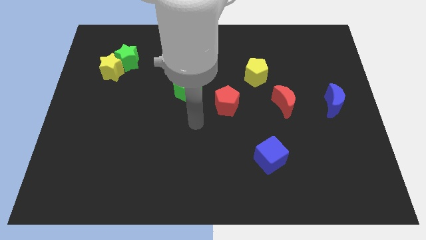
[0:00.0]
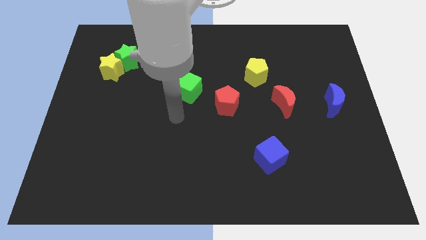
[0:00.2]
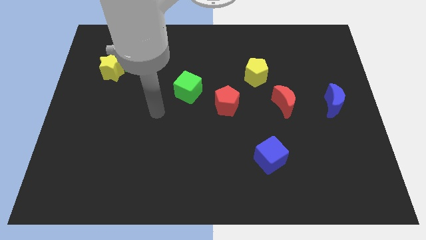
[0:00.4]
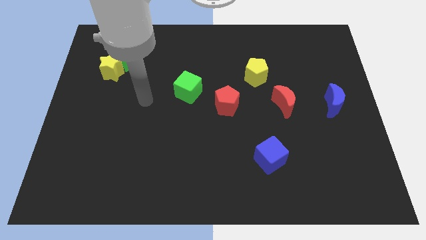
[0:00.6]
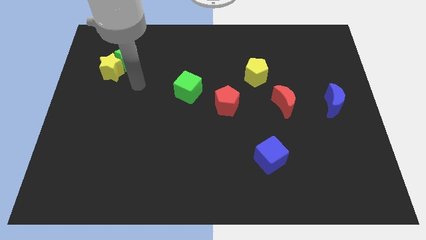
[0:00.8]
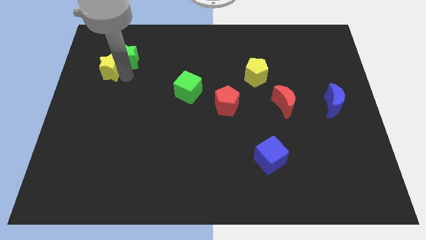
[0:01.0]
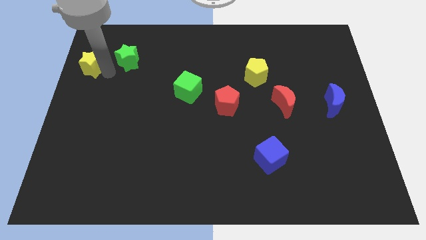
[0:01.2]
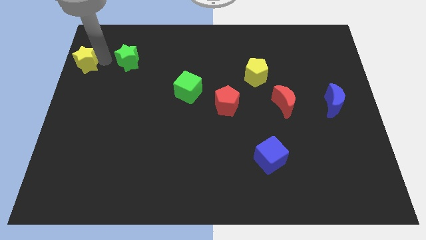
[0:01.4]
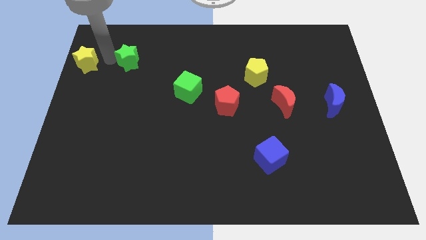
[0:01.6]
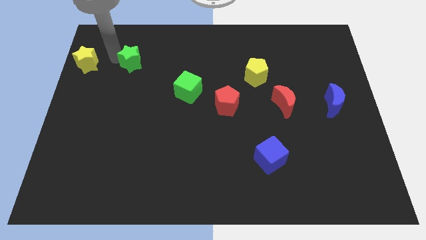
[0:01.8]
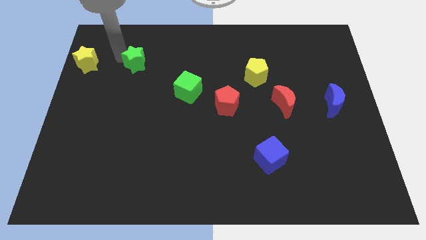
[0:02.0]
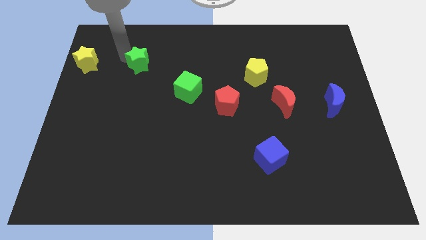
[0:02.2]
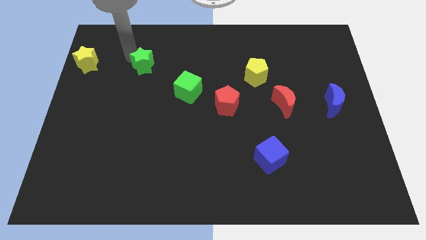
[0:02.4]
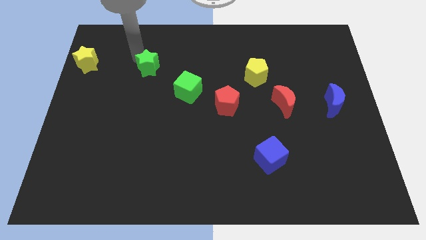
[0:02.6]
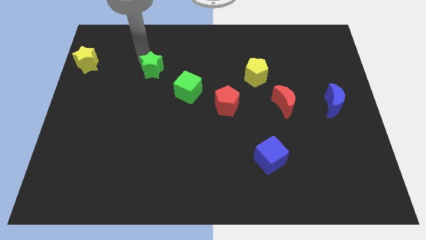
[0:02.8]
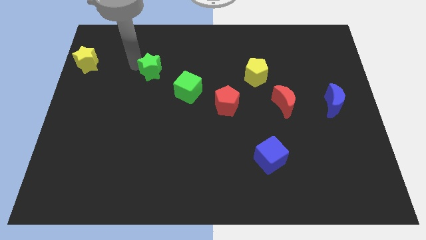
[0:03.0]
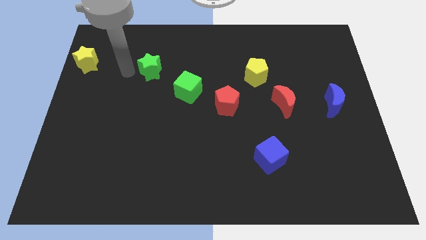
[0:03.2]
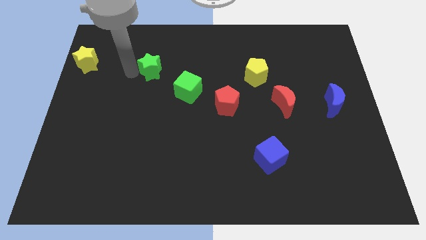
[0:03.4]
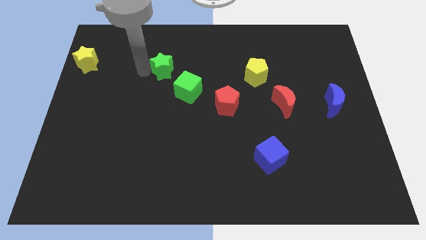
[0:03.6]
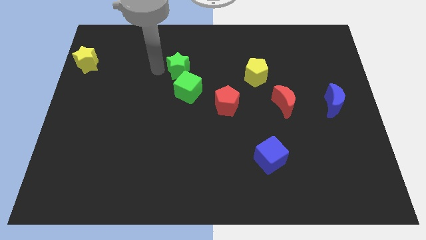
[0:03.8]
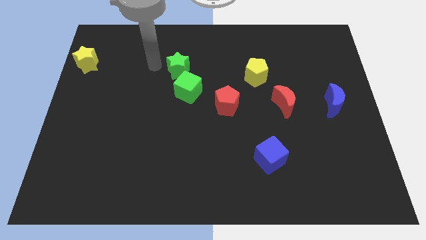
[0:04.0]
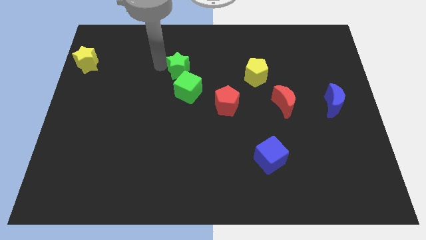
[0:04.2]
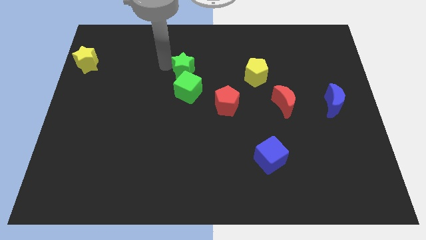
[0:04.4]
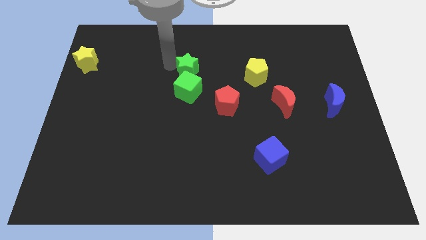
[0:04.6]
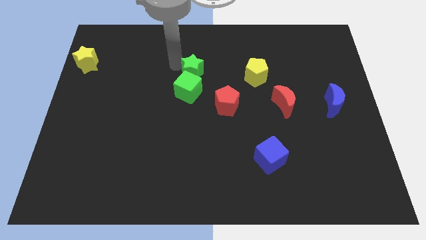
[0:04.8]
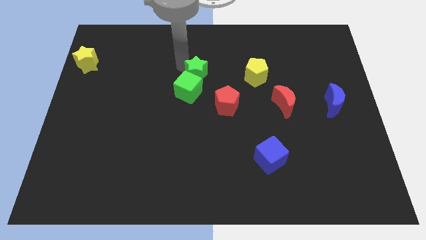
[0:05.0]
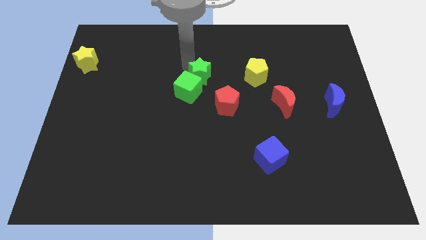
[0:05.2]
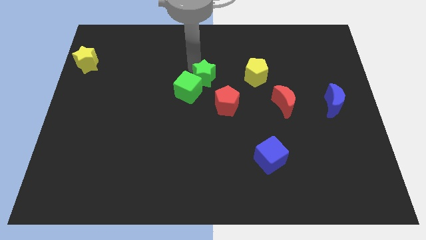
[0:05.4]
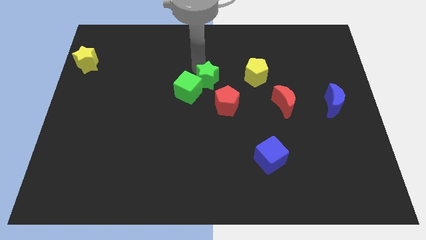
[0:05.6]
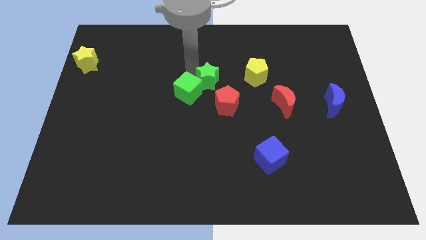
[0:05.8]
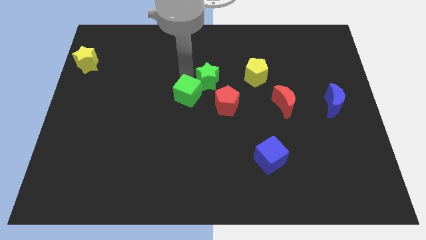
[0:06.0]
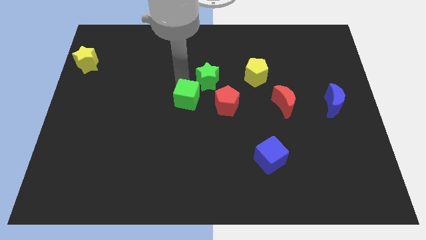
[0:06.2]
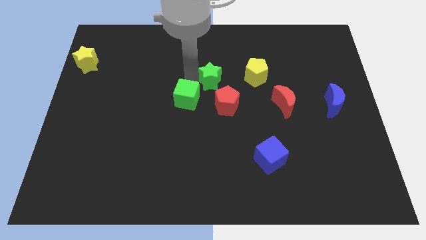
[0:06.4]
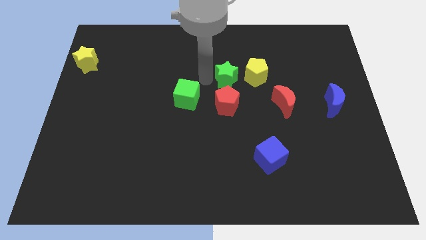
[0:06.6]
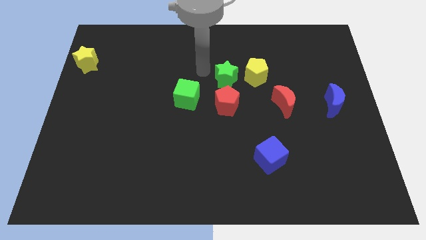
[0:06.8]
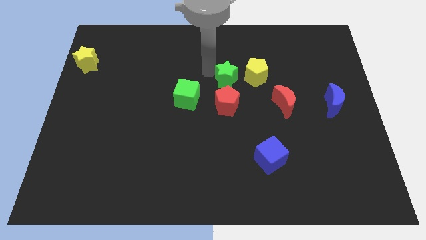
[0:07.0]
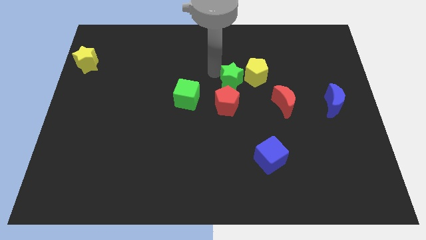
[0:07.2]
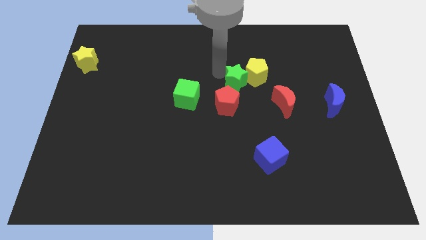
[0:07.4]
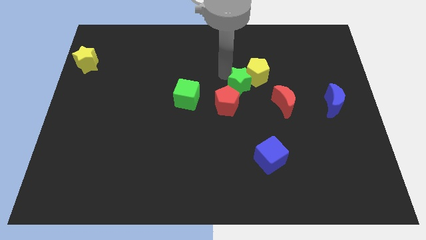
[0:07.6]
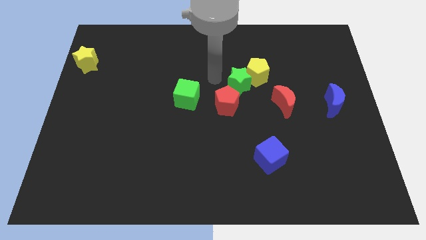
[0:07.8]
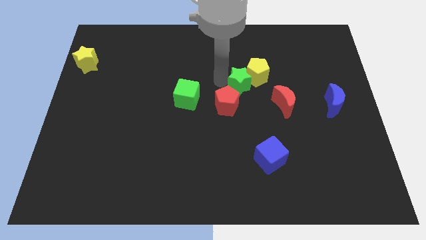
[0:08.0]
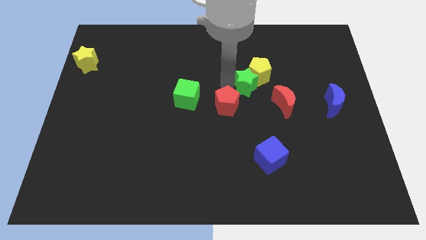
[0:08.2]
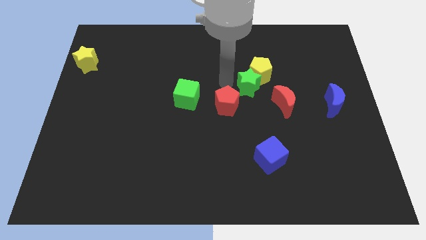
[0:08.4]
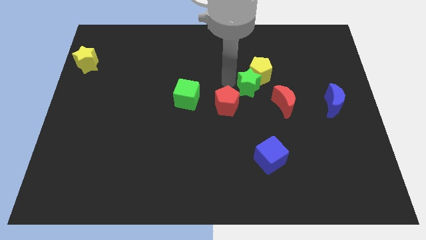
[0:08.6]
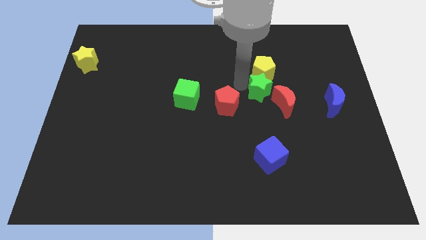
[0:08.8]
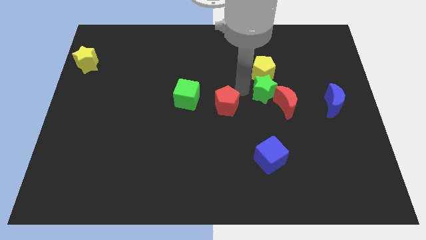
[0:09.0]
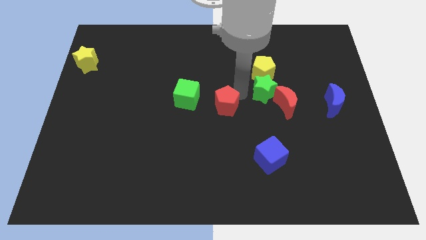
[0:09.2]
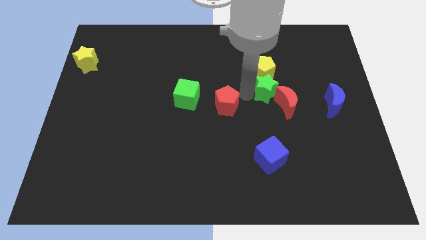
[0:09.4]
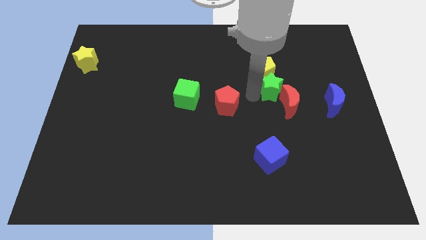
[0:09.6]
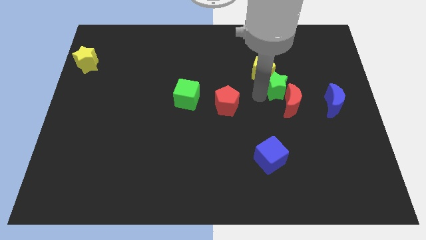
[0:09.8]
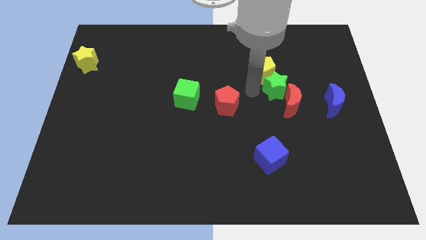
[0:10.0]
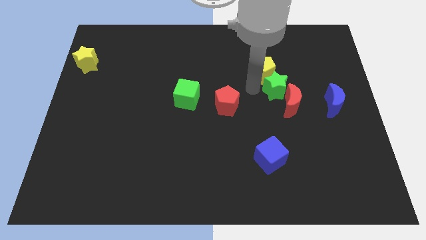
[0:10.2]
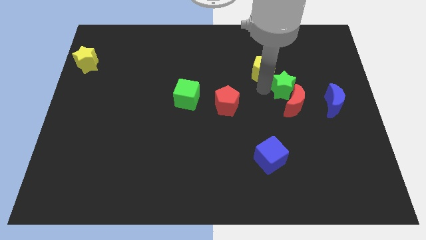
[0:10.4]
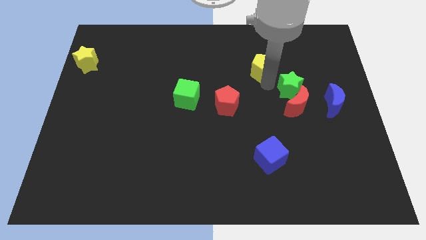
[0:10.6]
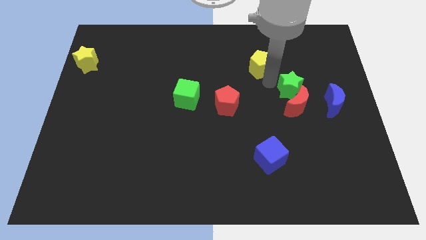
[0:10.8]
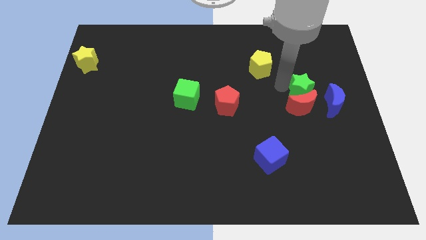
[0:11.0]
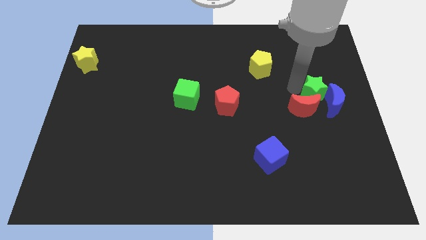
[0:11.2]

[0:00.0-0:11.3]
move the green star to the blue moon

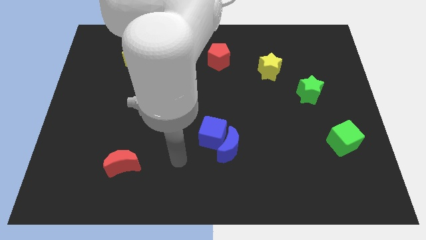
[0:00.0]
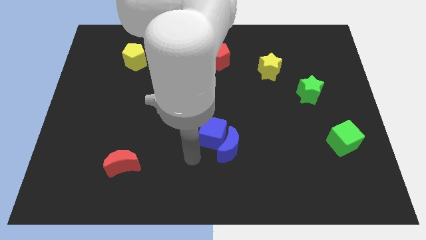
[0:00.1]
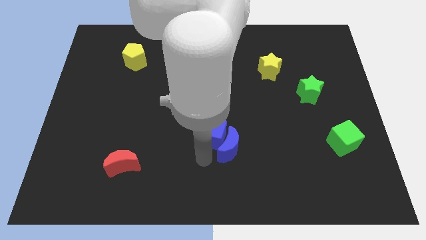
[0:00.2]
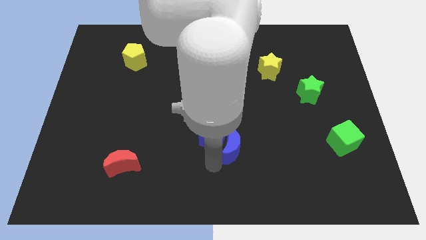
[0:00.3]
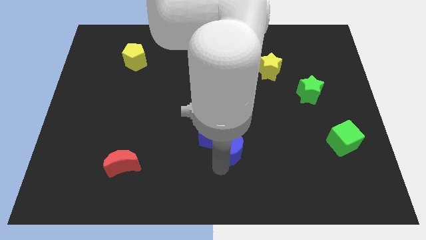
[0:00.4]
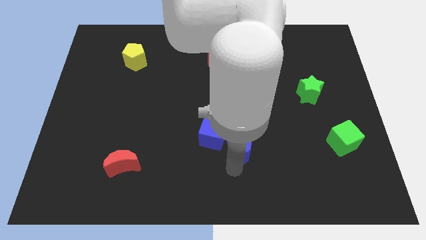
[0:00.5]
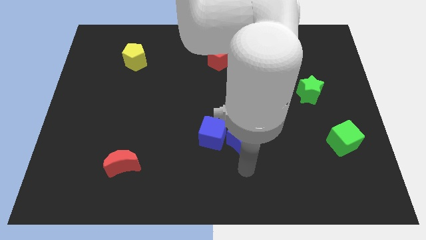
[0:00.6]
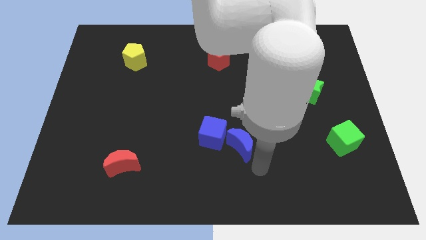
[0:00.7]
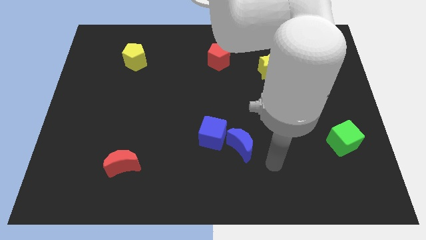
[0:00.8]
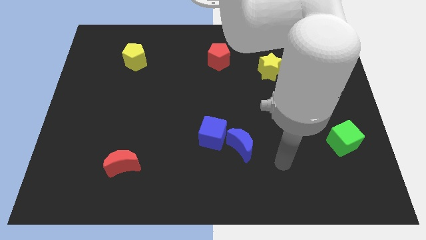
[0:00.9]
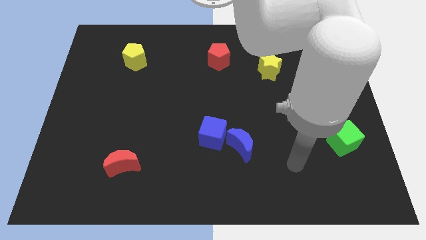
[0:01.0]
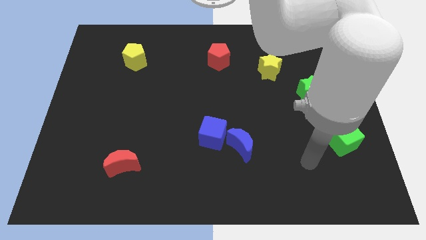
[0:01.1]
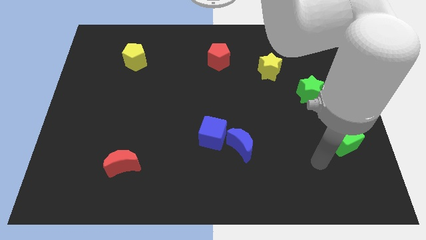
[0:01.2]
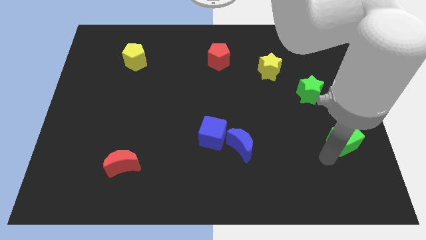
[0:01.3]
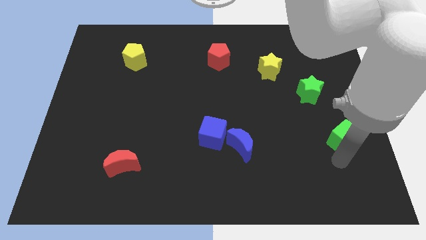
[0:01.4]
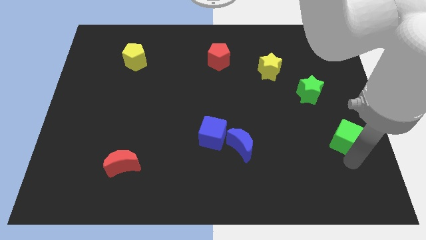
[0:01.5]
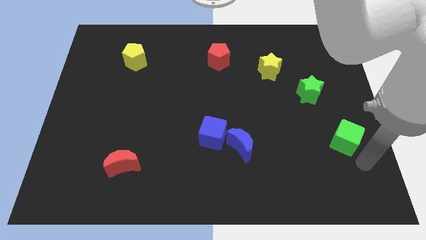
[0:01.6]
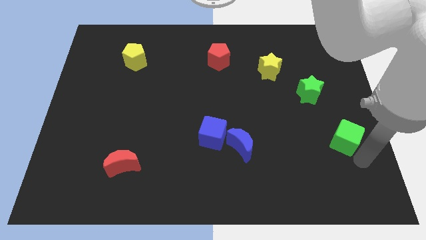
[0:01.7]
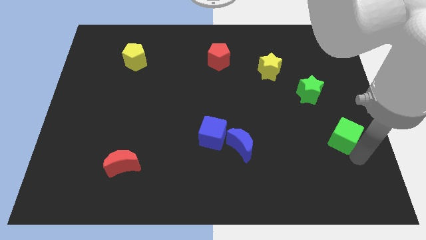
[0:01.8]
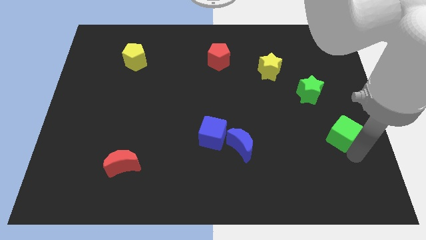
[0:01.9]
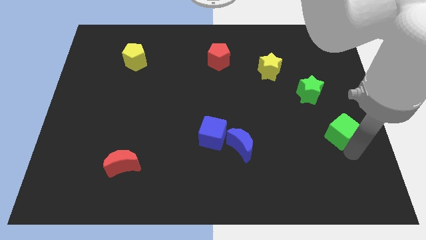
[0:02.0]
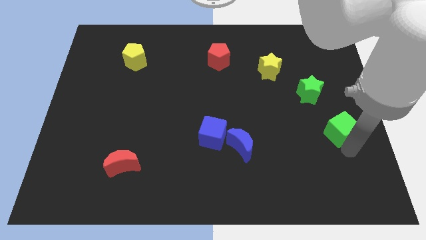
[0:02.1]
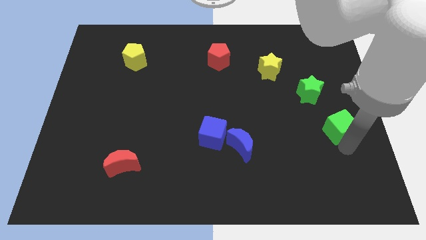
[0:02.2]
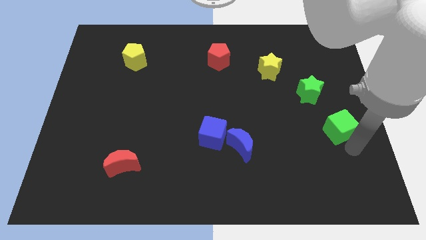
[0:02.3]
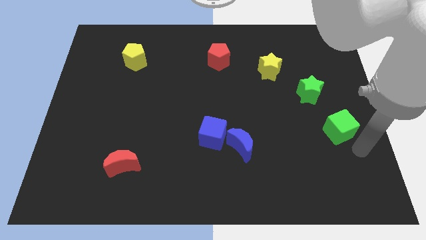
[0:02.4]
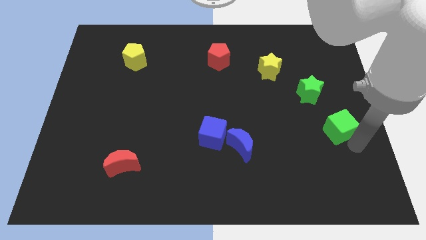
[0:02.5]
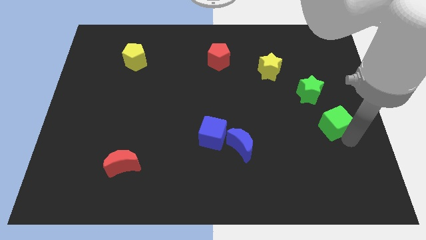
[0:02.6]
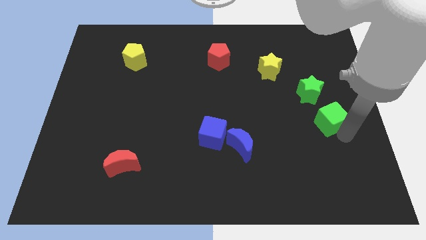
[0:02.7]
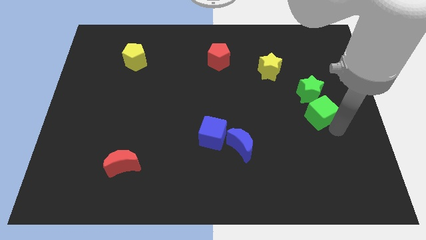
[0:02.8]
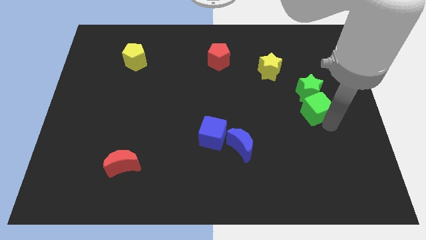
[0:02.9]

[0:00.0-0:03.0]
push the green cube close to the green star
